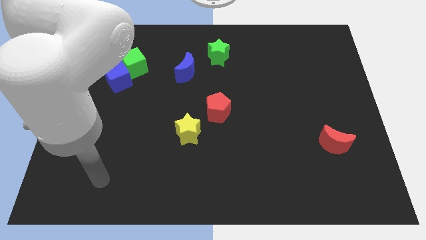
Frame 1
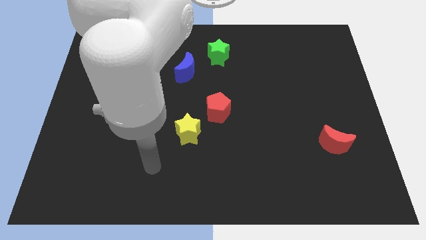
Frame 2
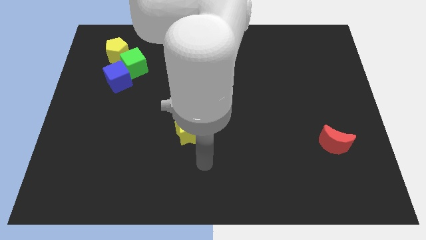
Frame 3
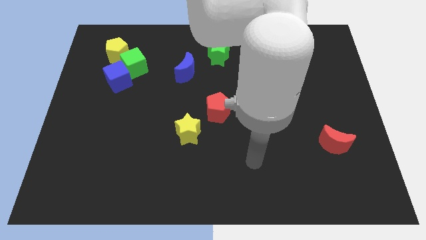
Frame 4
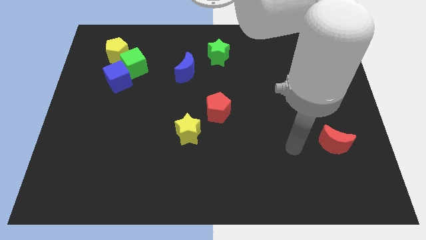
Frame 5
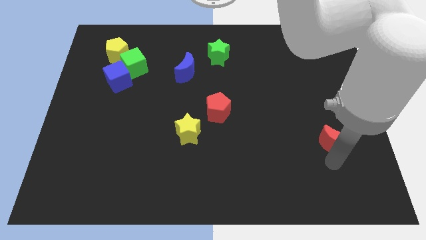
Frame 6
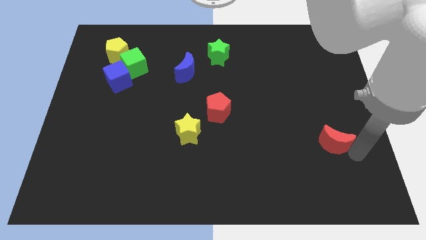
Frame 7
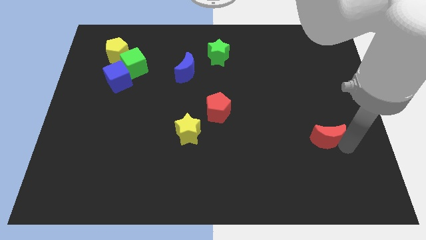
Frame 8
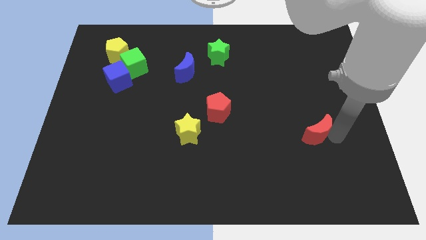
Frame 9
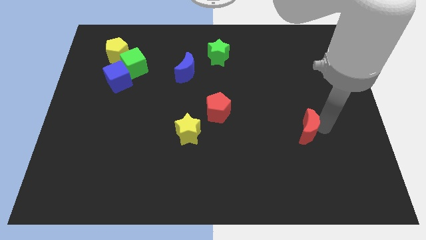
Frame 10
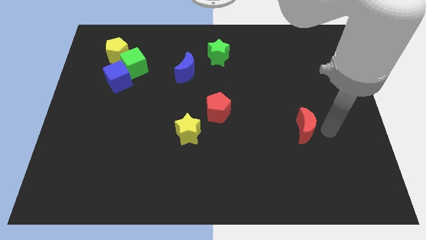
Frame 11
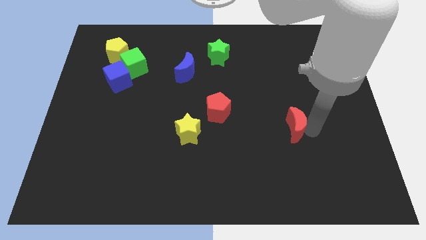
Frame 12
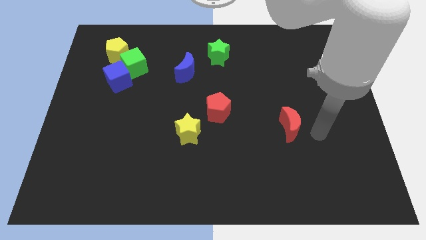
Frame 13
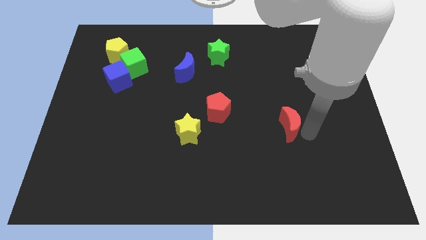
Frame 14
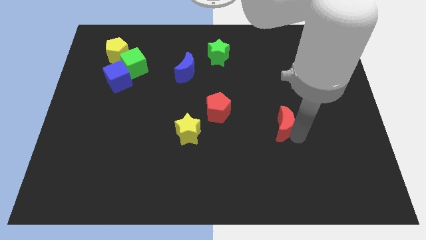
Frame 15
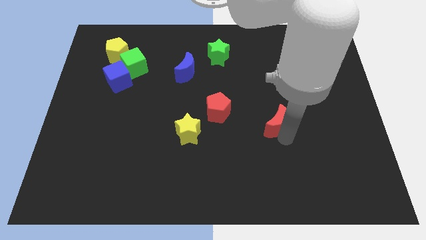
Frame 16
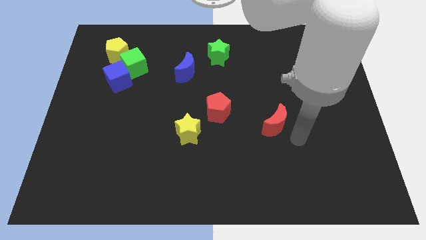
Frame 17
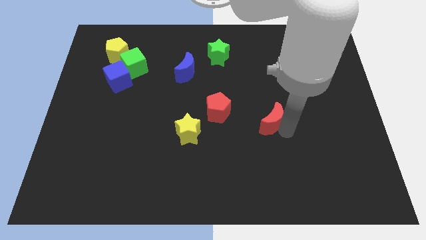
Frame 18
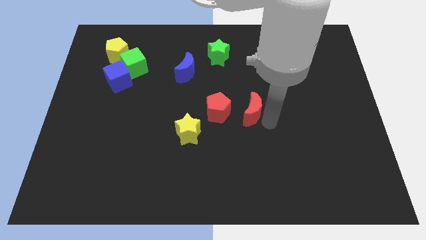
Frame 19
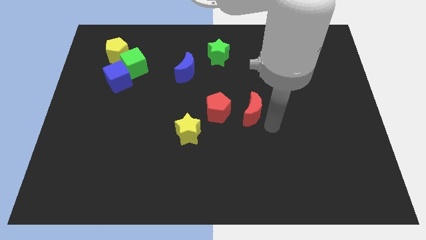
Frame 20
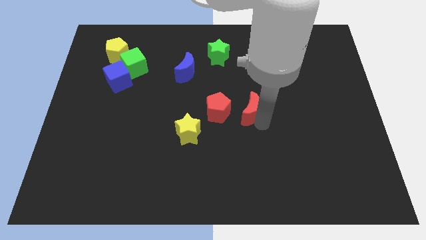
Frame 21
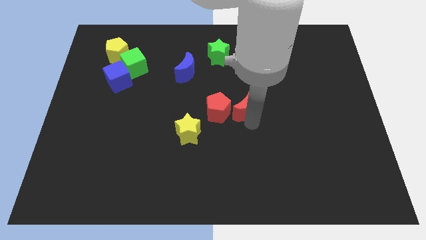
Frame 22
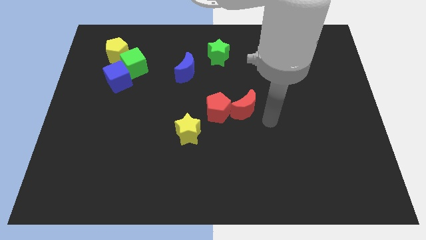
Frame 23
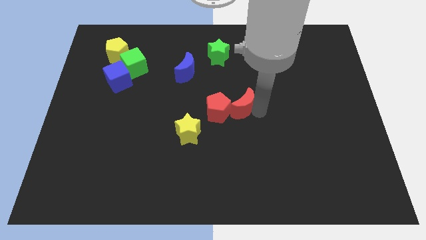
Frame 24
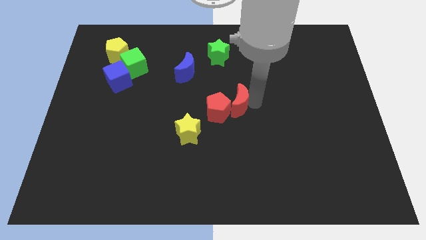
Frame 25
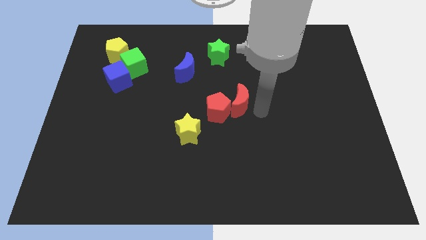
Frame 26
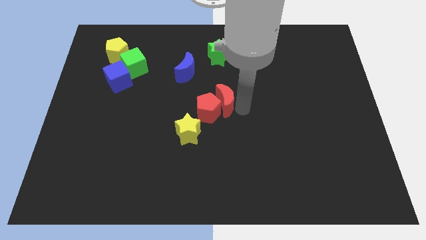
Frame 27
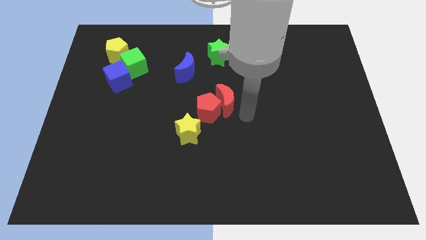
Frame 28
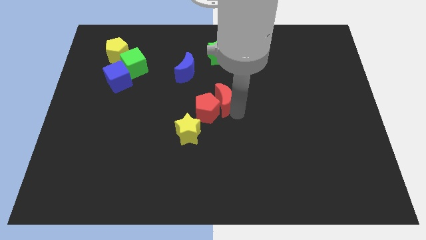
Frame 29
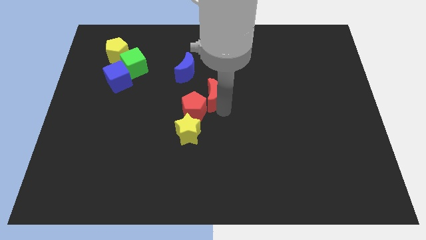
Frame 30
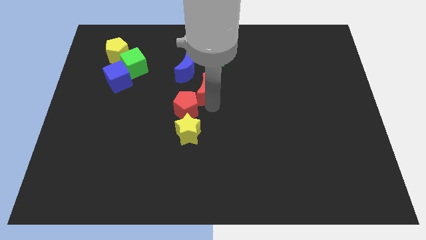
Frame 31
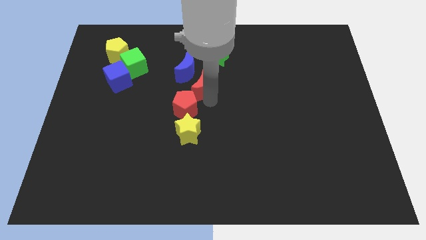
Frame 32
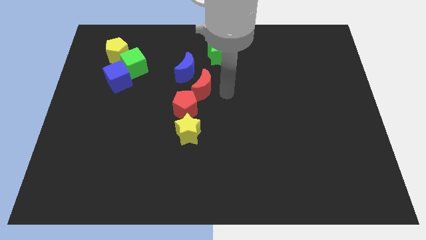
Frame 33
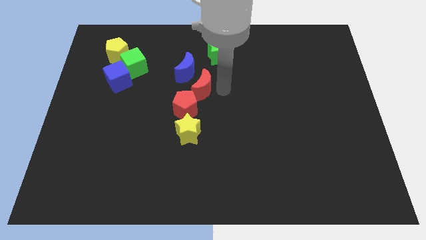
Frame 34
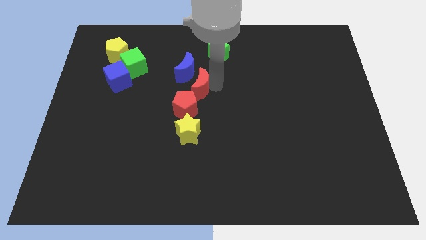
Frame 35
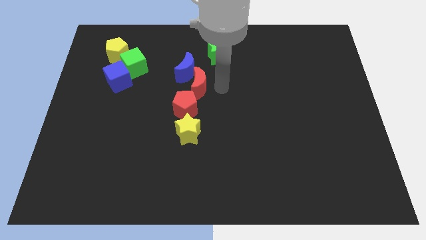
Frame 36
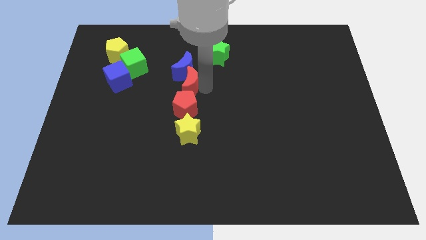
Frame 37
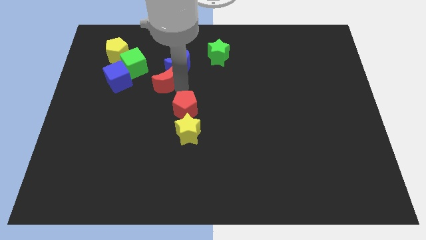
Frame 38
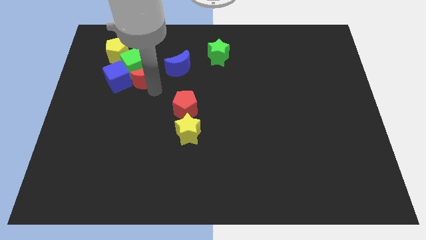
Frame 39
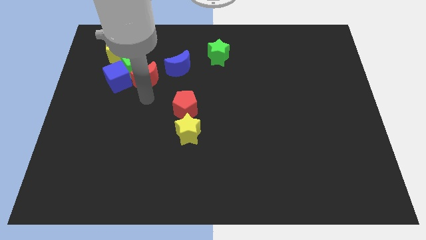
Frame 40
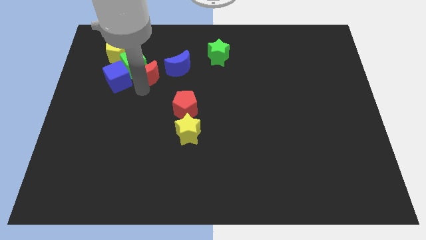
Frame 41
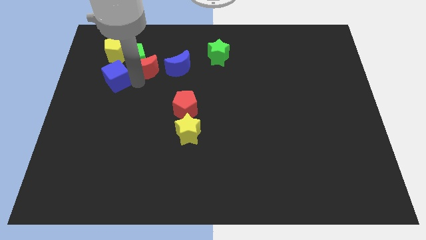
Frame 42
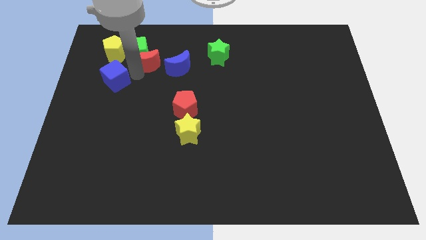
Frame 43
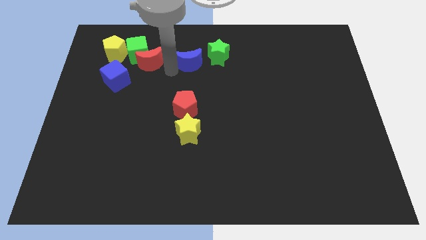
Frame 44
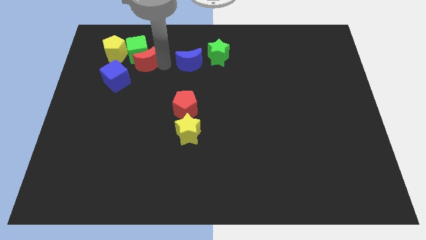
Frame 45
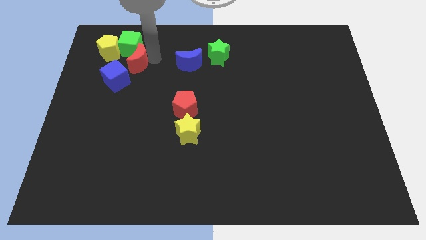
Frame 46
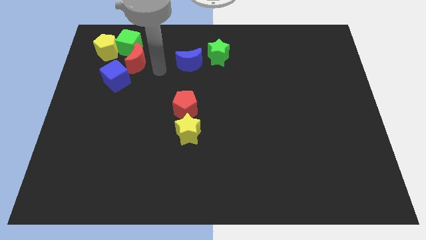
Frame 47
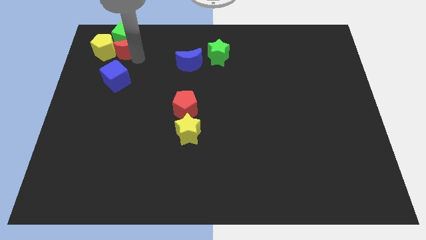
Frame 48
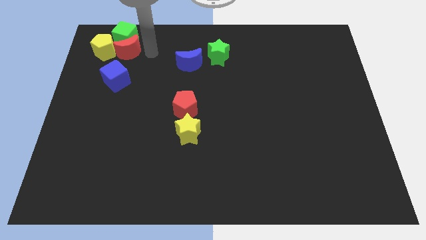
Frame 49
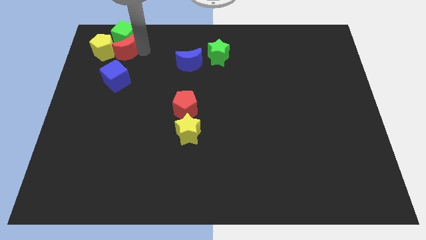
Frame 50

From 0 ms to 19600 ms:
slide the red moon towards the yellow pentagon

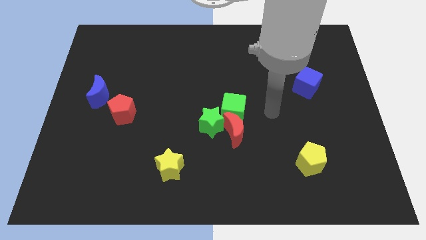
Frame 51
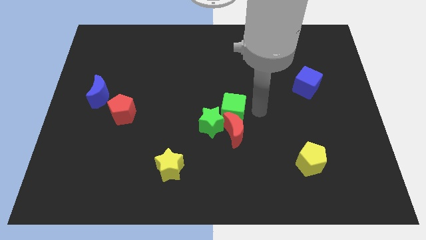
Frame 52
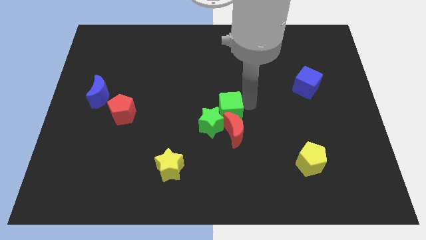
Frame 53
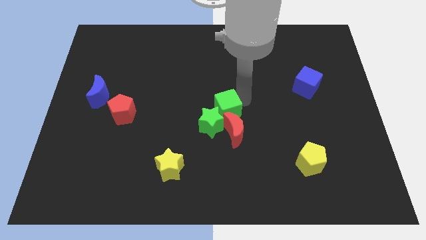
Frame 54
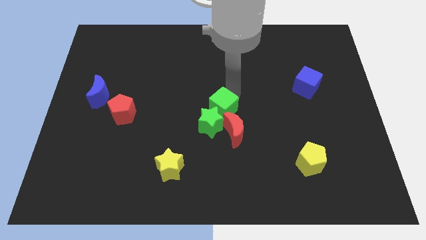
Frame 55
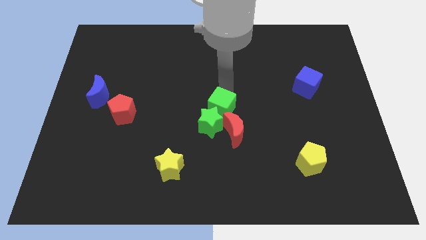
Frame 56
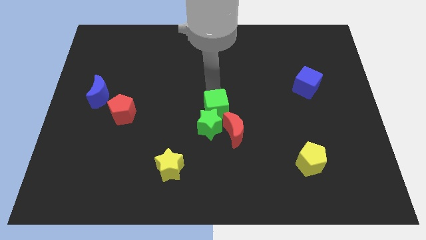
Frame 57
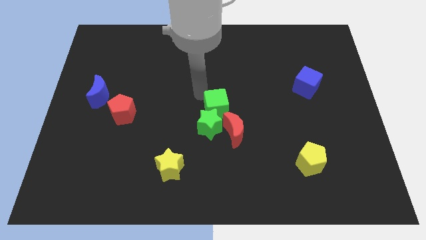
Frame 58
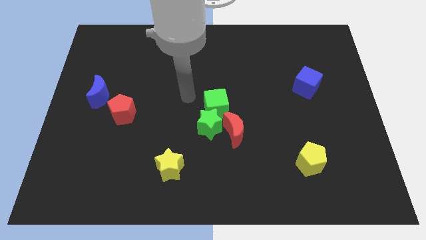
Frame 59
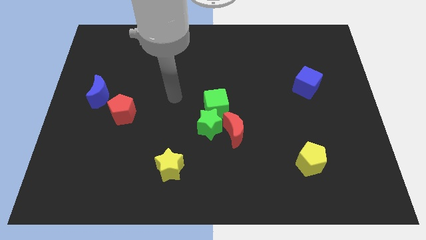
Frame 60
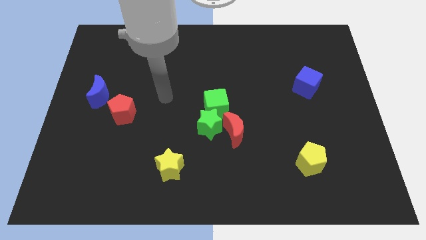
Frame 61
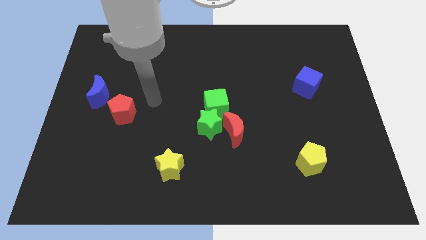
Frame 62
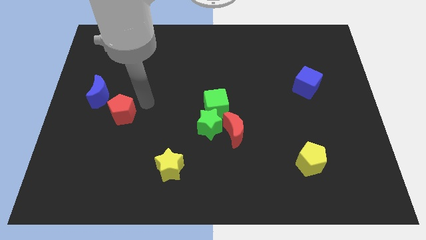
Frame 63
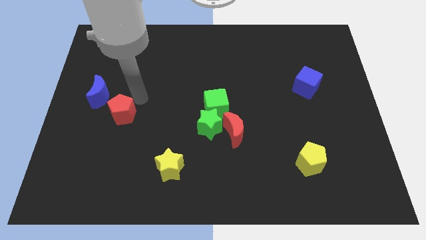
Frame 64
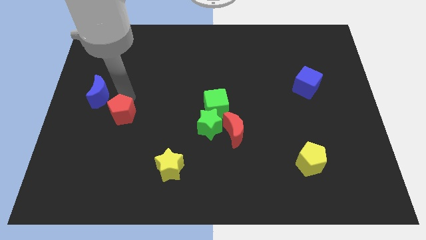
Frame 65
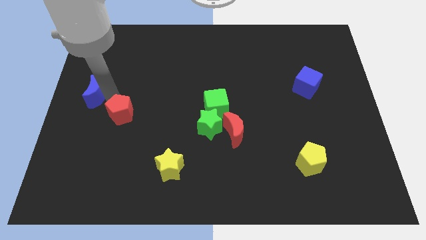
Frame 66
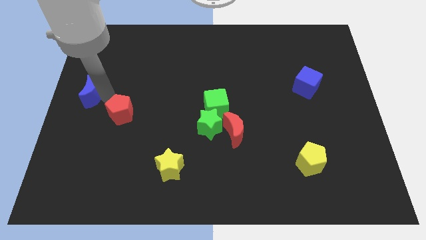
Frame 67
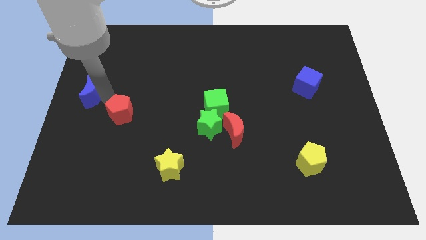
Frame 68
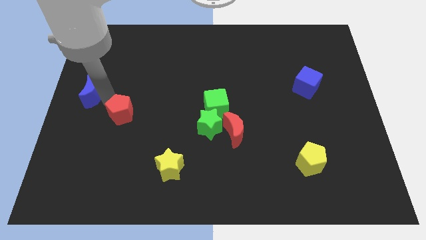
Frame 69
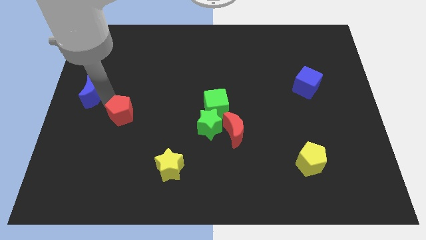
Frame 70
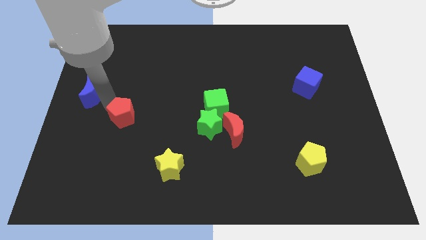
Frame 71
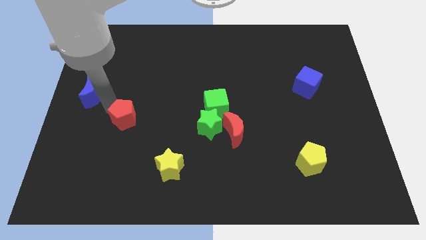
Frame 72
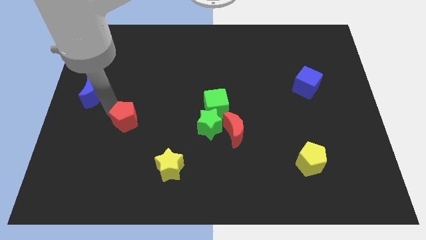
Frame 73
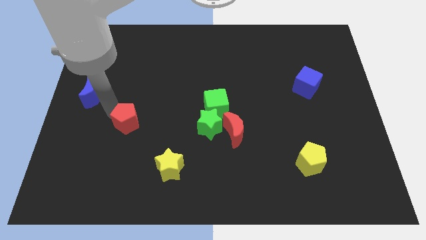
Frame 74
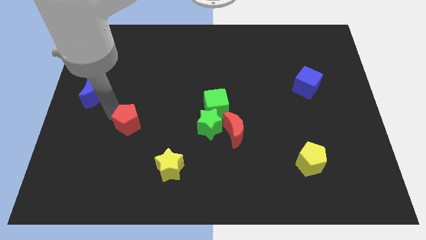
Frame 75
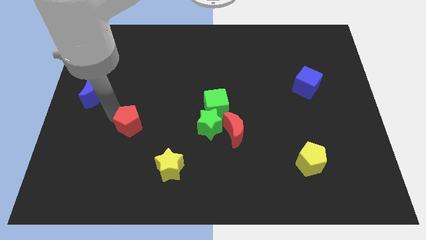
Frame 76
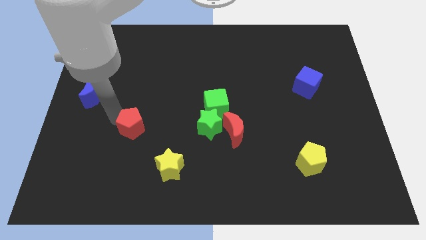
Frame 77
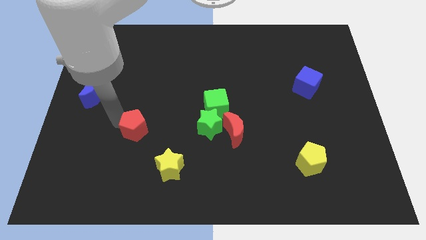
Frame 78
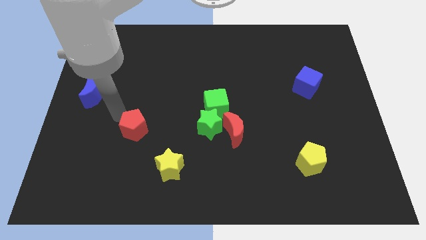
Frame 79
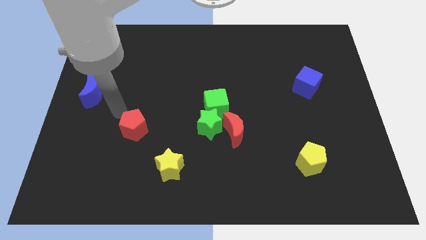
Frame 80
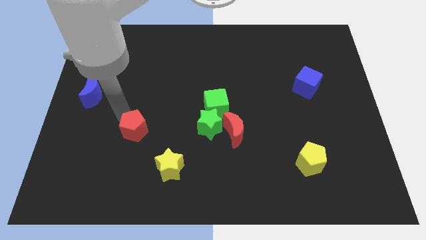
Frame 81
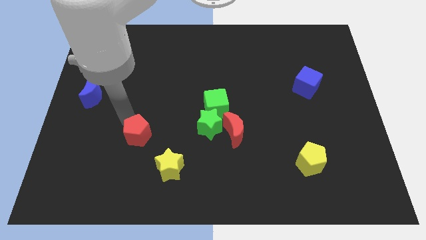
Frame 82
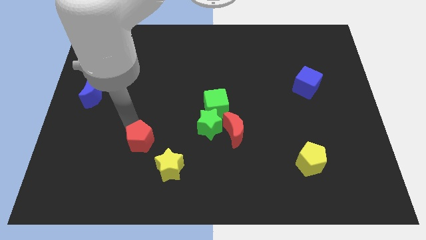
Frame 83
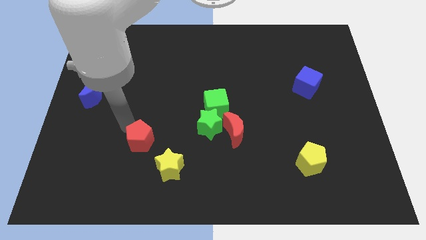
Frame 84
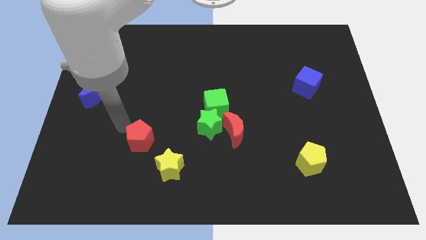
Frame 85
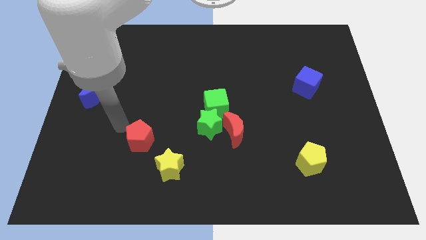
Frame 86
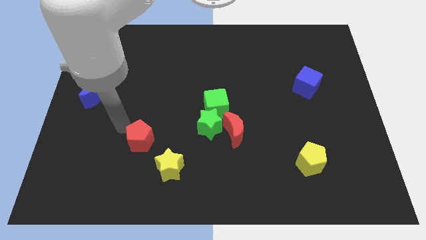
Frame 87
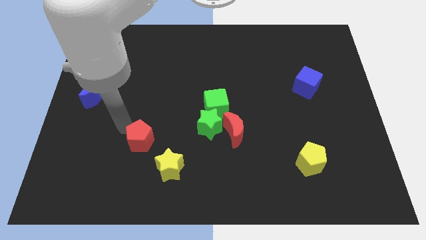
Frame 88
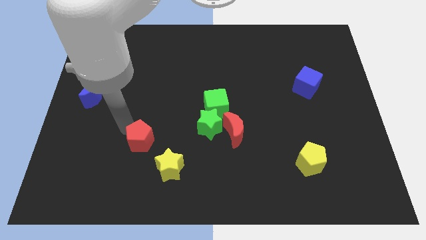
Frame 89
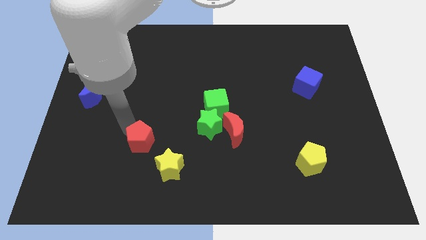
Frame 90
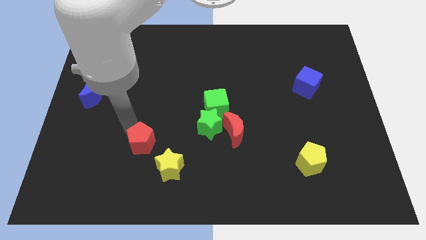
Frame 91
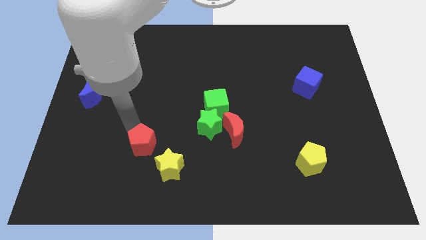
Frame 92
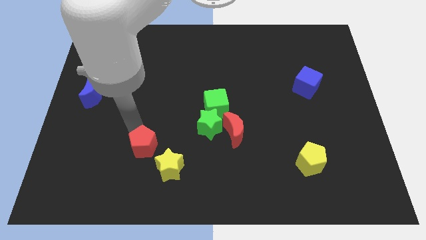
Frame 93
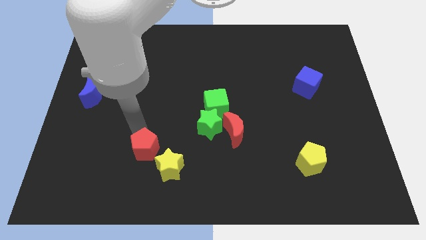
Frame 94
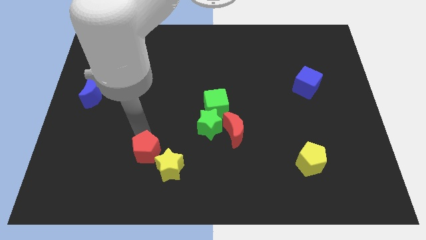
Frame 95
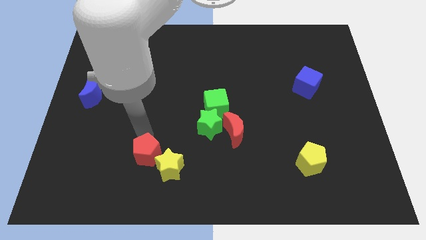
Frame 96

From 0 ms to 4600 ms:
move the red pentagon next to the yellow star
